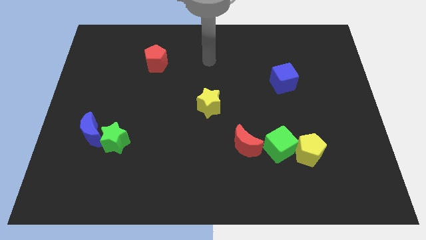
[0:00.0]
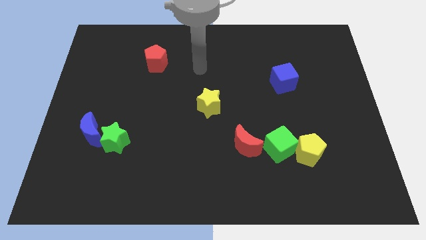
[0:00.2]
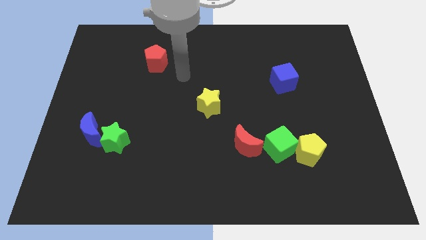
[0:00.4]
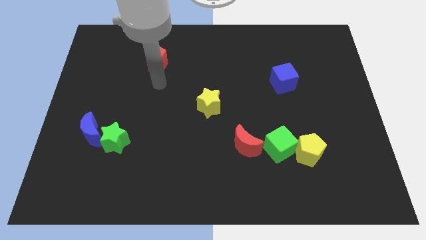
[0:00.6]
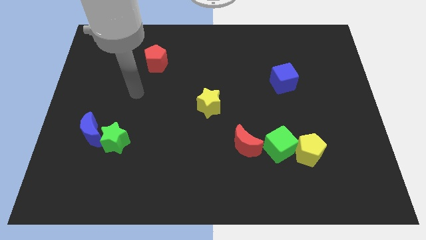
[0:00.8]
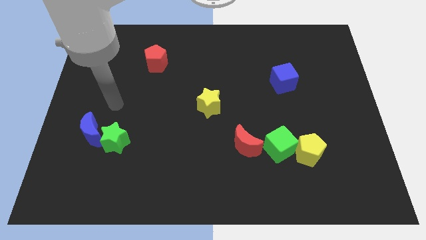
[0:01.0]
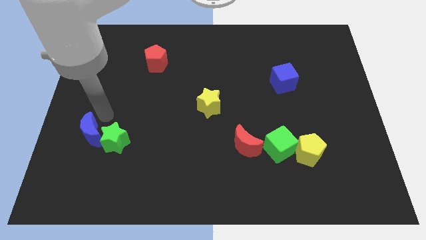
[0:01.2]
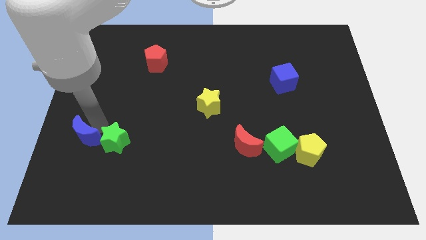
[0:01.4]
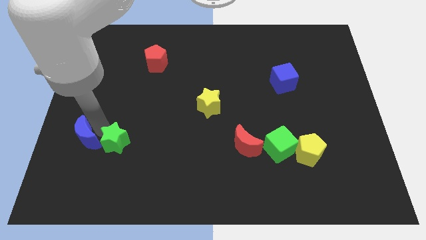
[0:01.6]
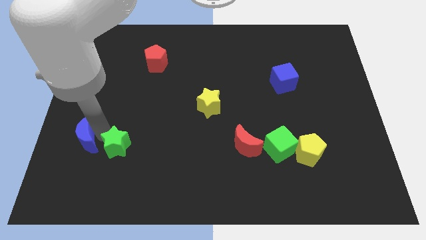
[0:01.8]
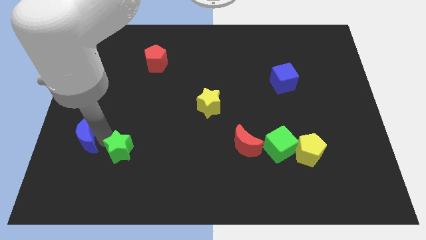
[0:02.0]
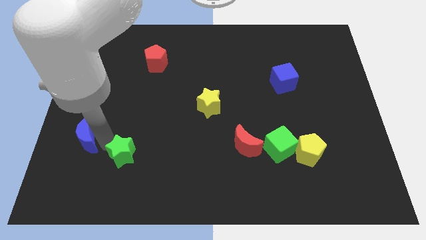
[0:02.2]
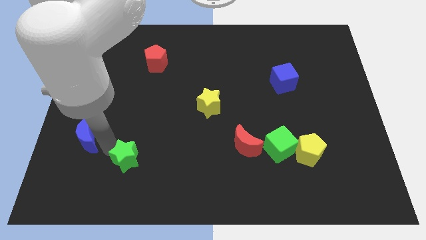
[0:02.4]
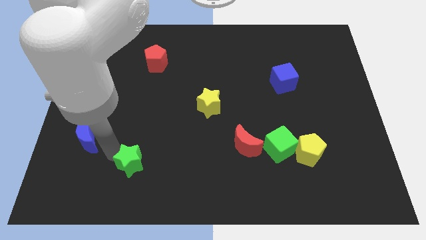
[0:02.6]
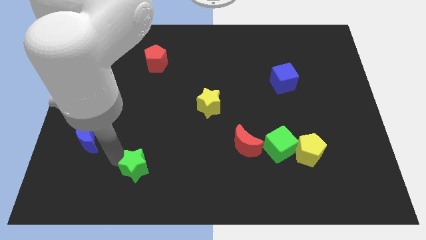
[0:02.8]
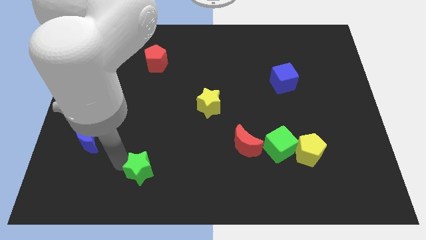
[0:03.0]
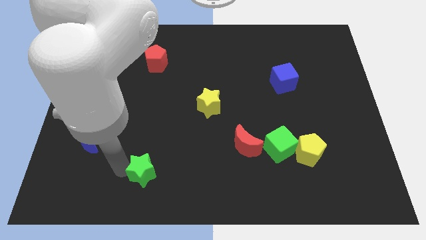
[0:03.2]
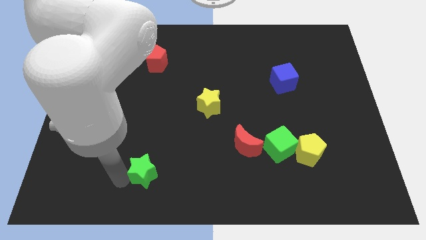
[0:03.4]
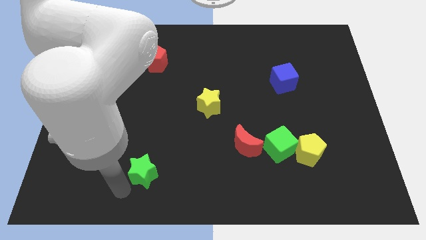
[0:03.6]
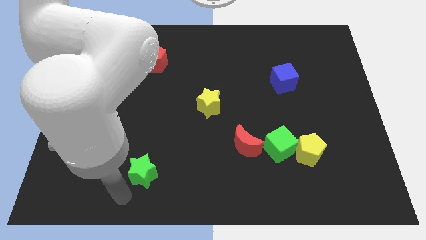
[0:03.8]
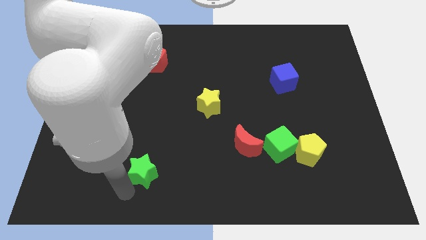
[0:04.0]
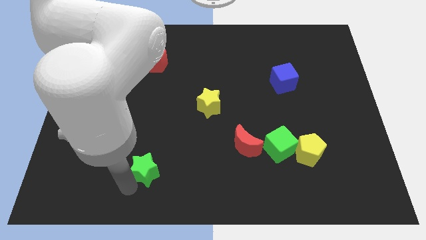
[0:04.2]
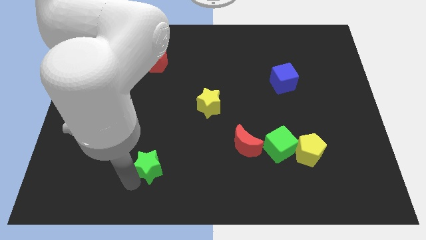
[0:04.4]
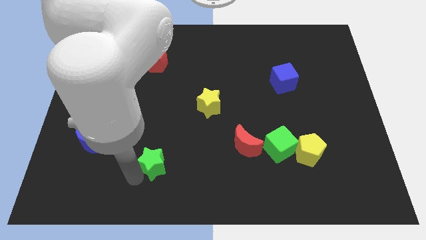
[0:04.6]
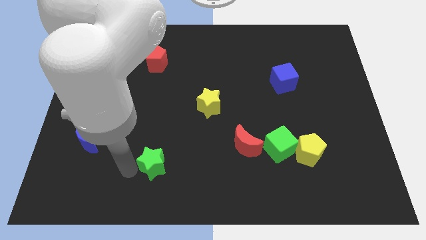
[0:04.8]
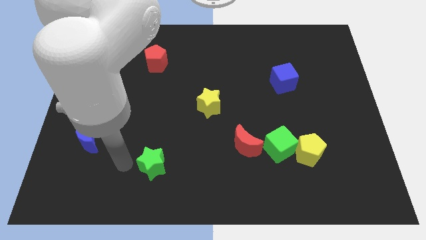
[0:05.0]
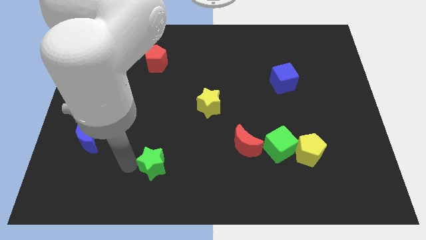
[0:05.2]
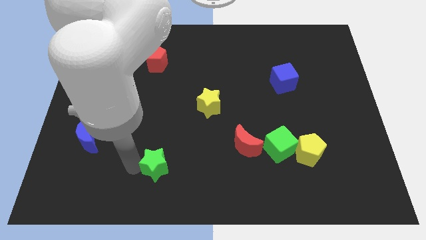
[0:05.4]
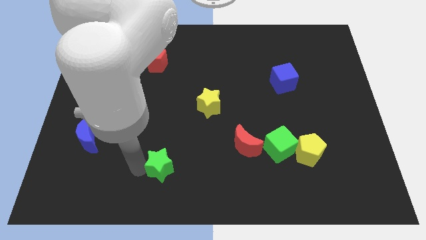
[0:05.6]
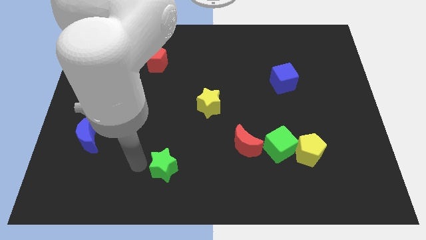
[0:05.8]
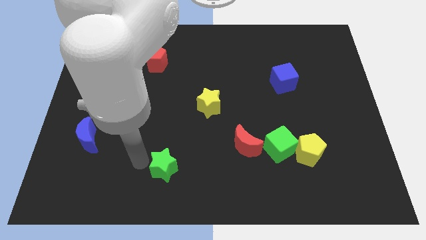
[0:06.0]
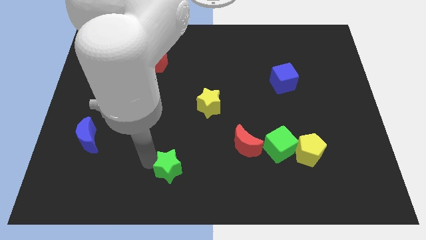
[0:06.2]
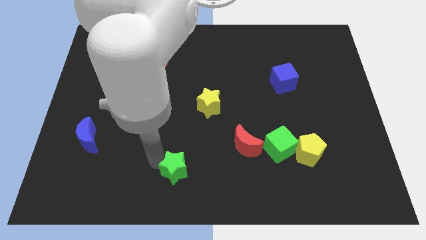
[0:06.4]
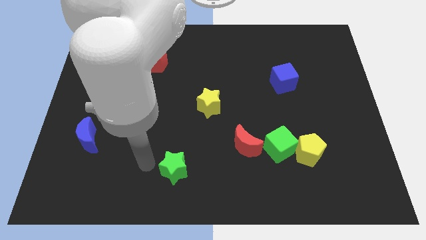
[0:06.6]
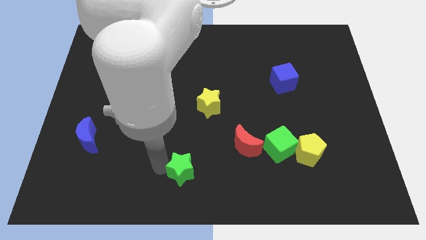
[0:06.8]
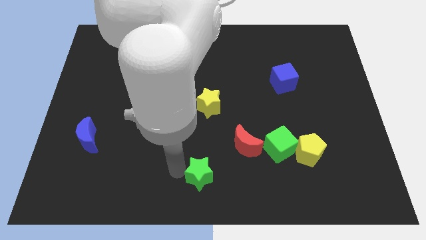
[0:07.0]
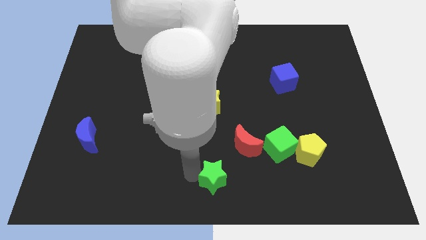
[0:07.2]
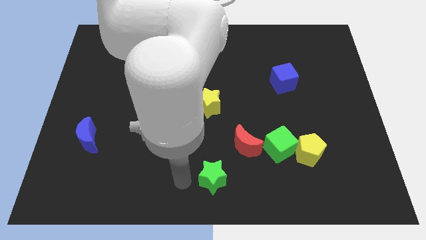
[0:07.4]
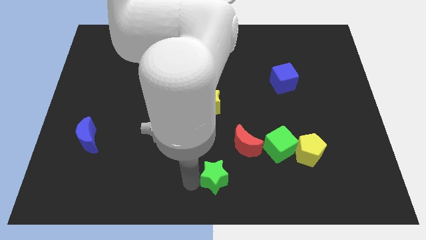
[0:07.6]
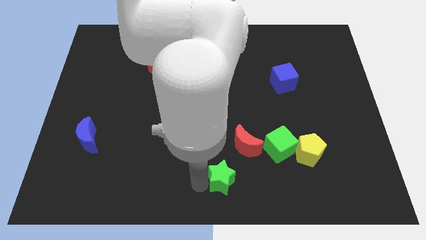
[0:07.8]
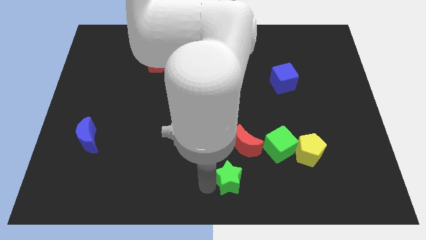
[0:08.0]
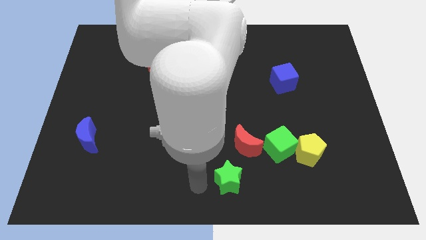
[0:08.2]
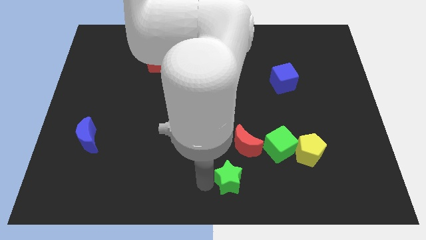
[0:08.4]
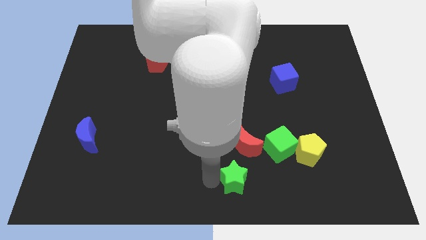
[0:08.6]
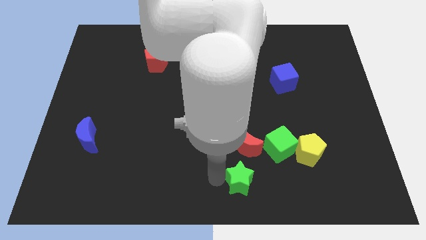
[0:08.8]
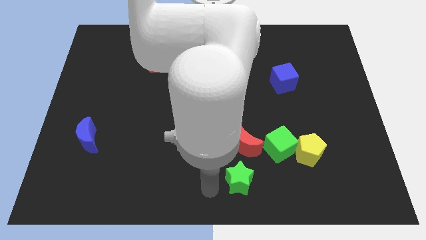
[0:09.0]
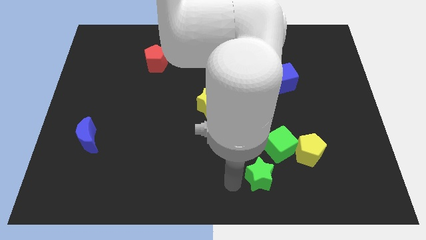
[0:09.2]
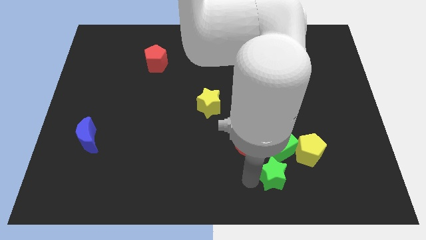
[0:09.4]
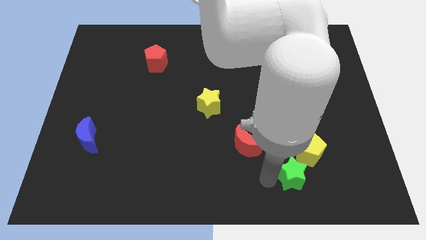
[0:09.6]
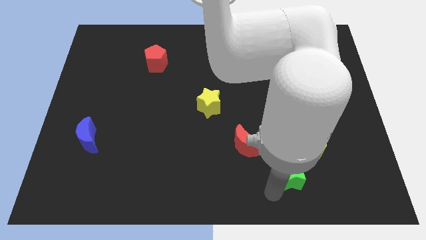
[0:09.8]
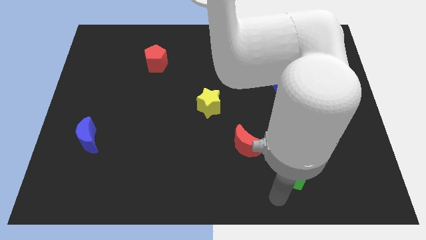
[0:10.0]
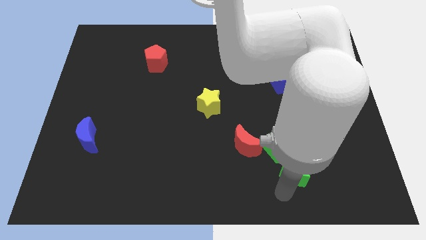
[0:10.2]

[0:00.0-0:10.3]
push the green star towards the yellow pentagon

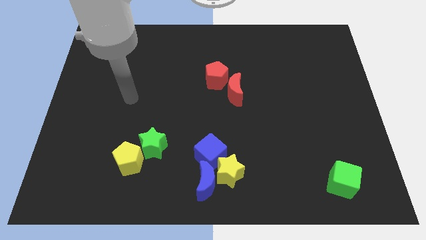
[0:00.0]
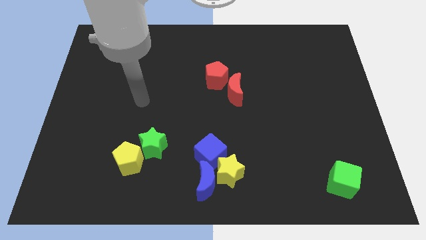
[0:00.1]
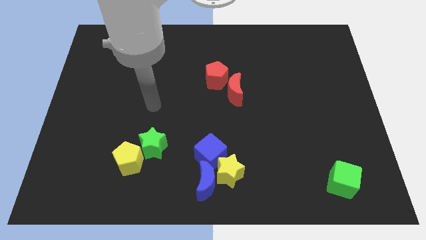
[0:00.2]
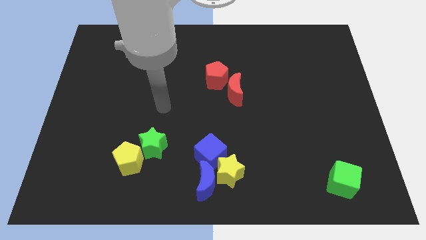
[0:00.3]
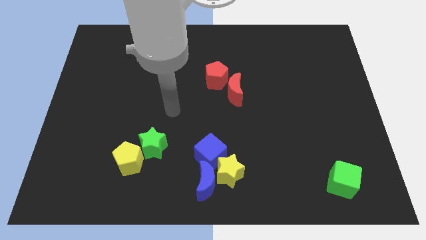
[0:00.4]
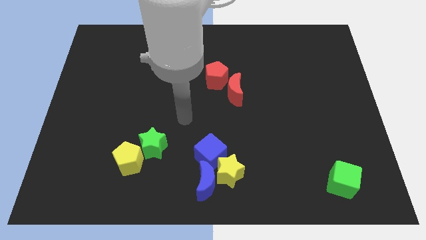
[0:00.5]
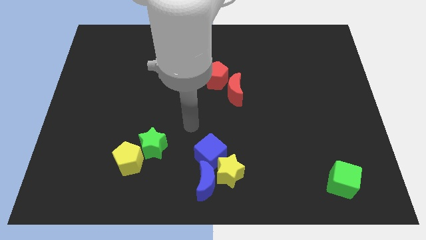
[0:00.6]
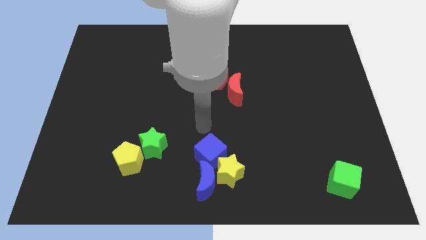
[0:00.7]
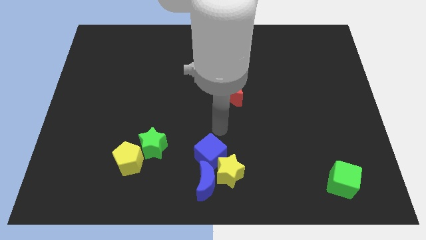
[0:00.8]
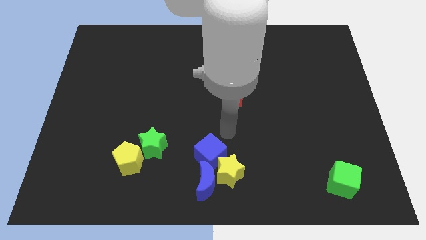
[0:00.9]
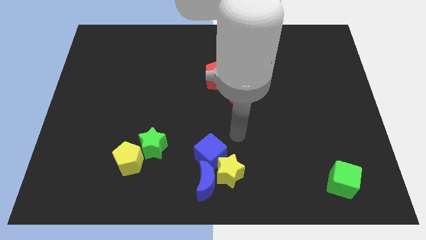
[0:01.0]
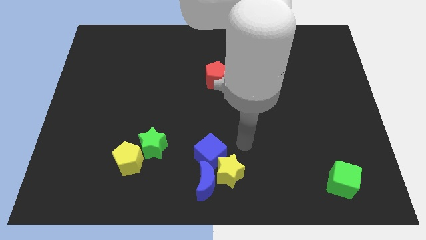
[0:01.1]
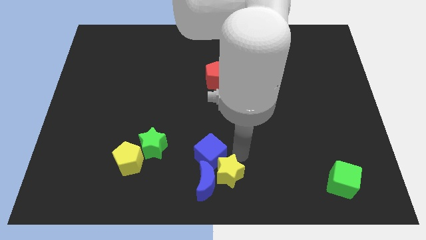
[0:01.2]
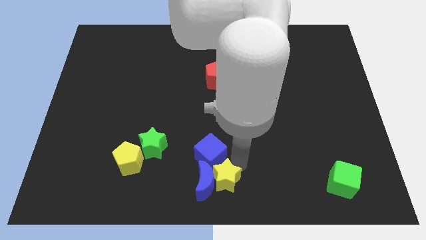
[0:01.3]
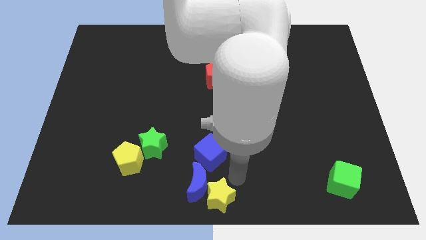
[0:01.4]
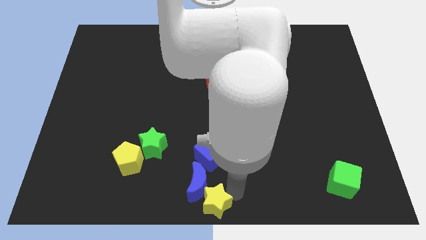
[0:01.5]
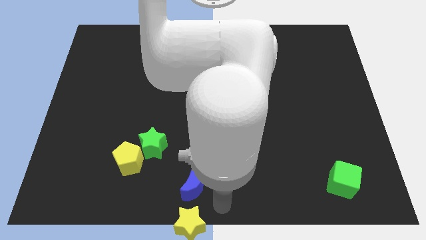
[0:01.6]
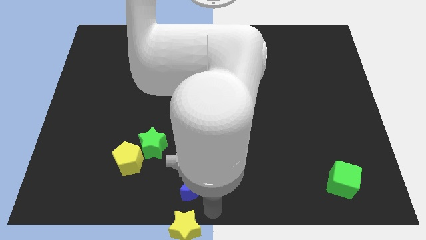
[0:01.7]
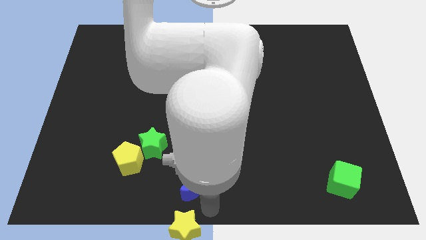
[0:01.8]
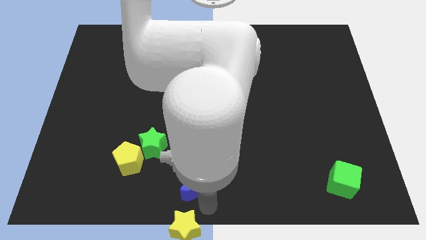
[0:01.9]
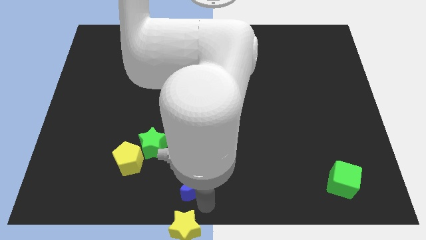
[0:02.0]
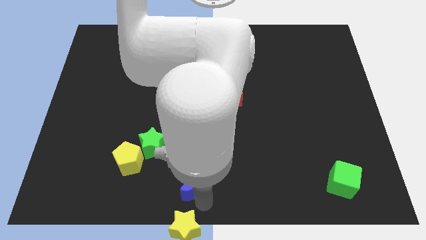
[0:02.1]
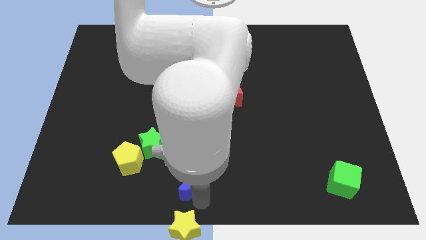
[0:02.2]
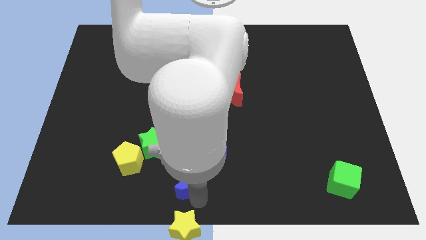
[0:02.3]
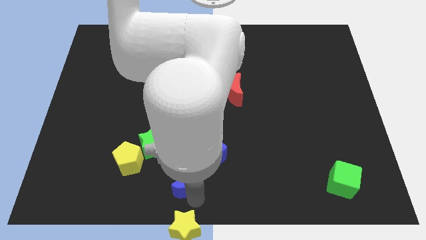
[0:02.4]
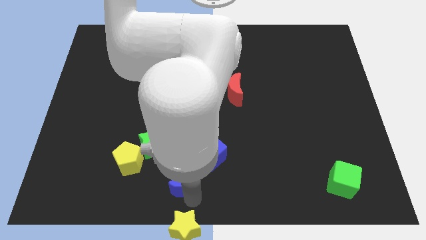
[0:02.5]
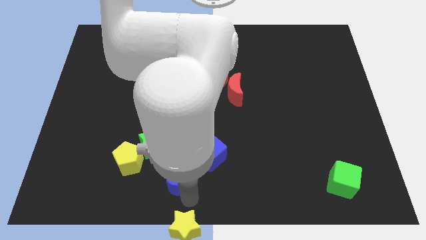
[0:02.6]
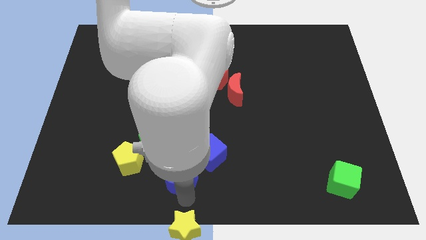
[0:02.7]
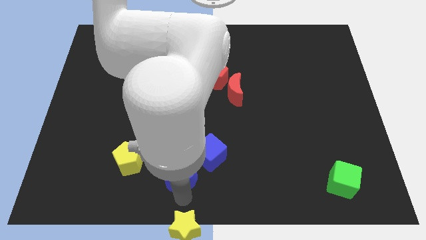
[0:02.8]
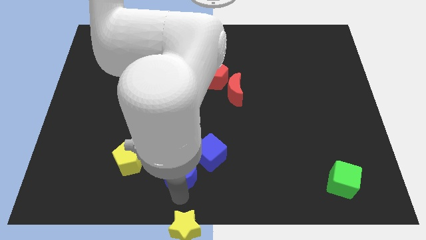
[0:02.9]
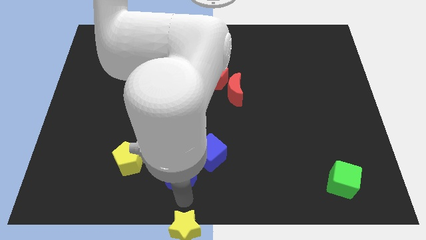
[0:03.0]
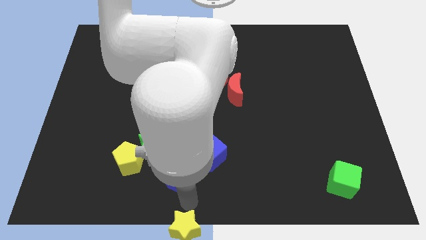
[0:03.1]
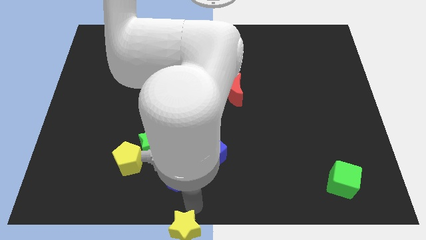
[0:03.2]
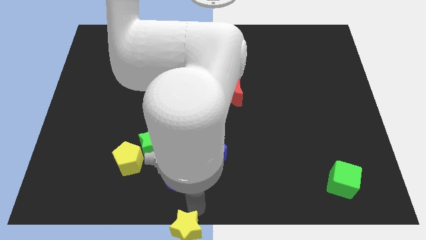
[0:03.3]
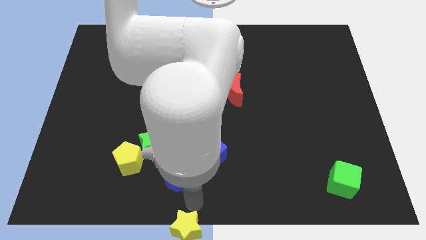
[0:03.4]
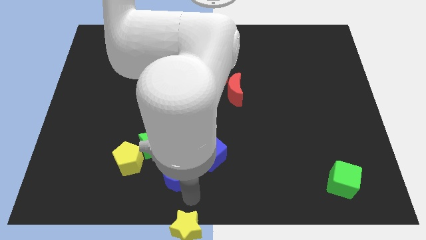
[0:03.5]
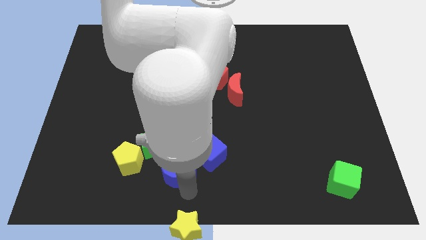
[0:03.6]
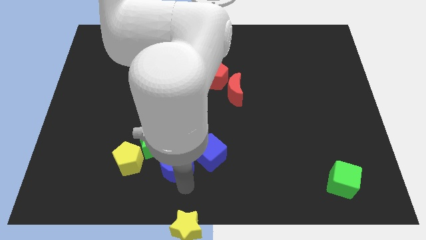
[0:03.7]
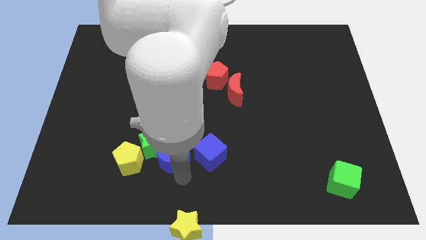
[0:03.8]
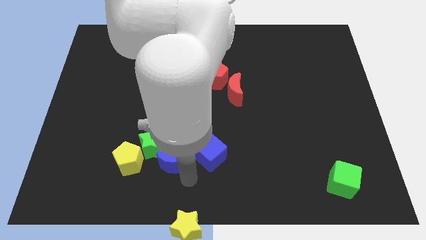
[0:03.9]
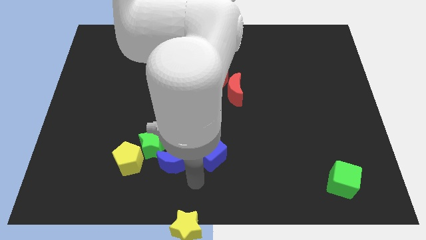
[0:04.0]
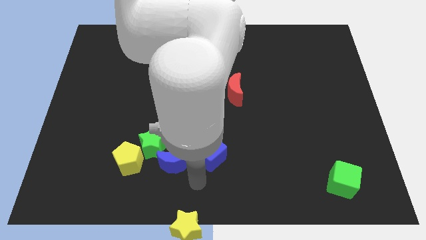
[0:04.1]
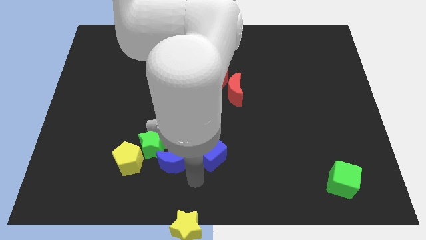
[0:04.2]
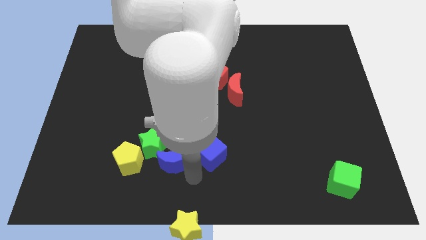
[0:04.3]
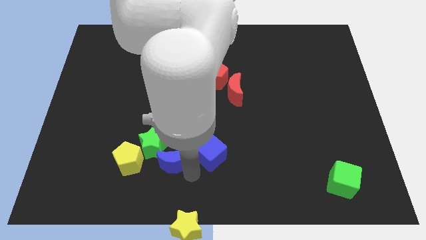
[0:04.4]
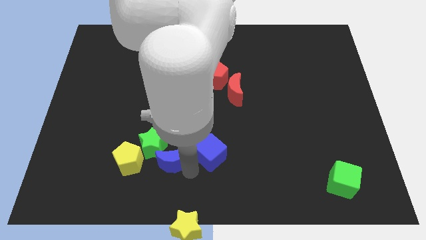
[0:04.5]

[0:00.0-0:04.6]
push the blue moon close to the green star
